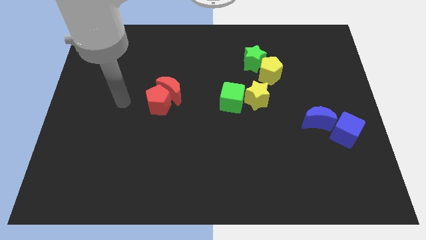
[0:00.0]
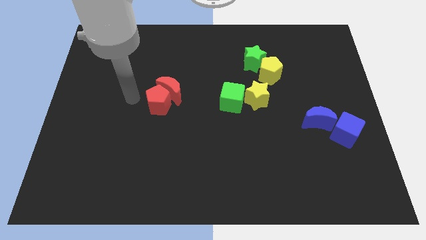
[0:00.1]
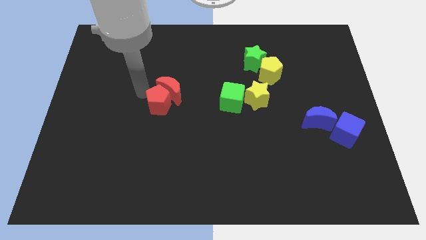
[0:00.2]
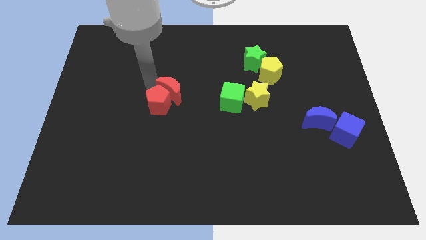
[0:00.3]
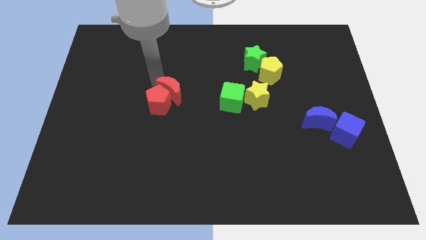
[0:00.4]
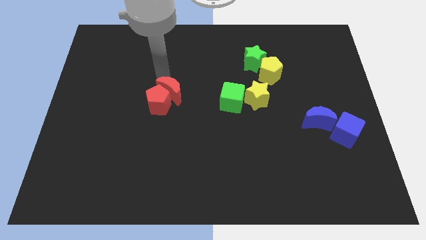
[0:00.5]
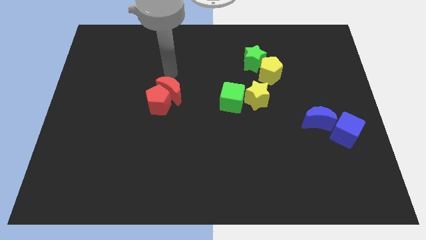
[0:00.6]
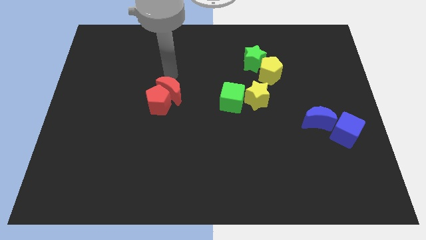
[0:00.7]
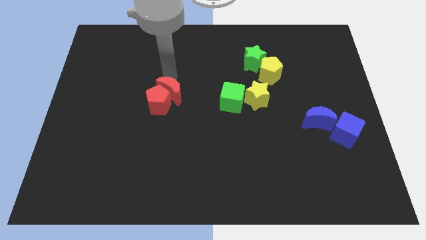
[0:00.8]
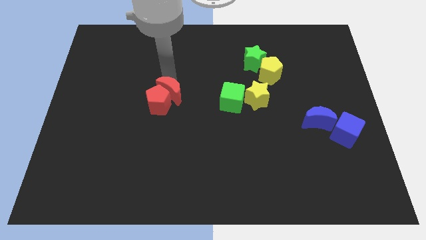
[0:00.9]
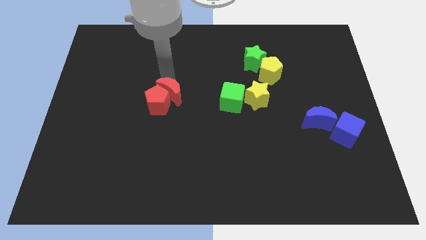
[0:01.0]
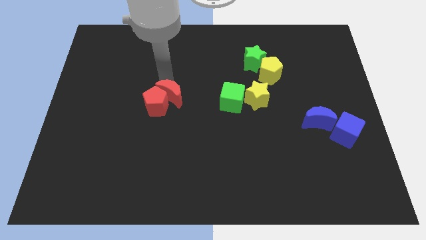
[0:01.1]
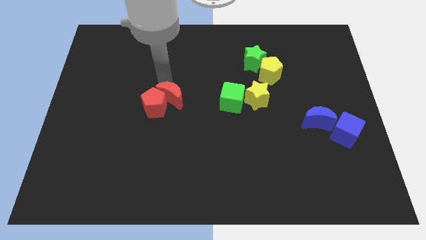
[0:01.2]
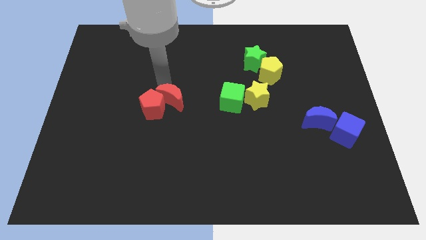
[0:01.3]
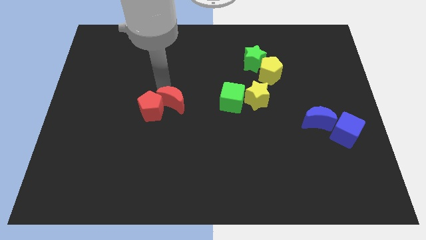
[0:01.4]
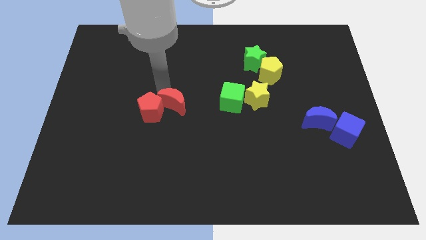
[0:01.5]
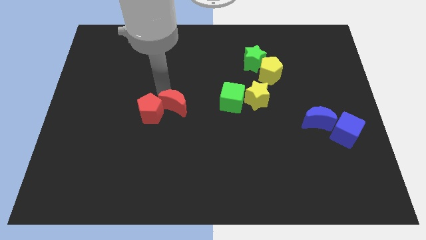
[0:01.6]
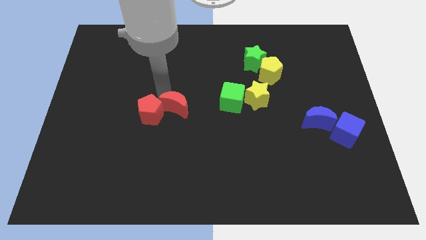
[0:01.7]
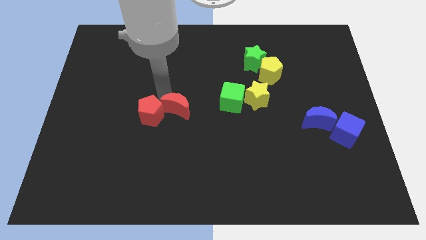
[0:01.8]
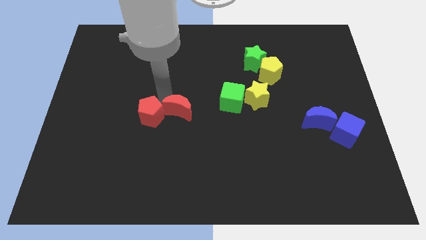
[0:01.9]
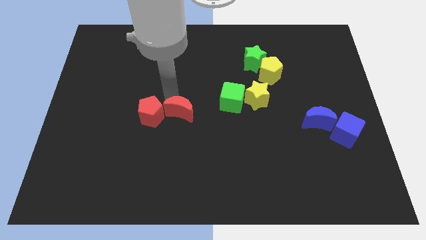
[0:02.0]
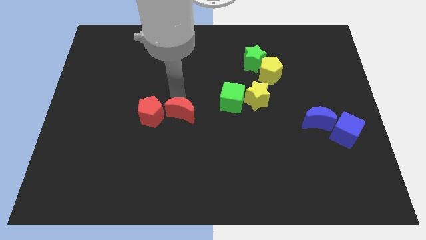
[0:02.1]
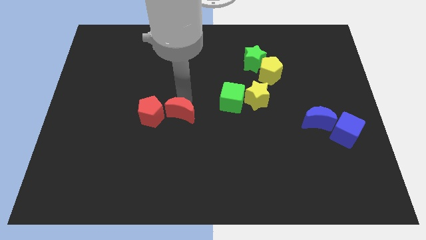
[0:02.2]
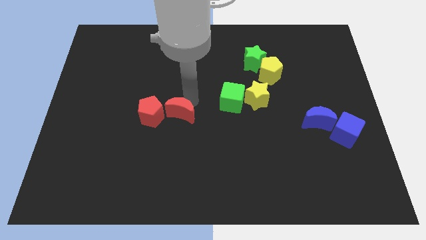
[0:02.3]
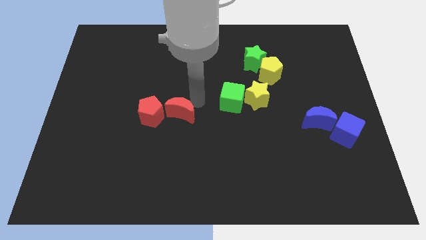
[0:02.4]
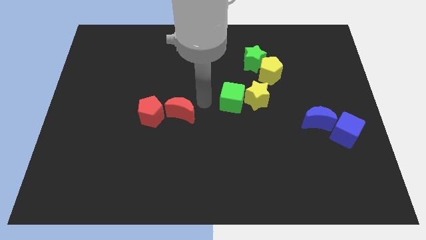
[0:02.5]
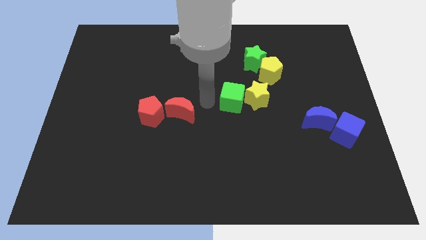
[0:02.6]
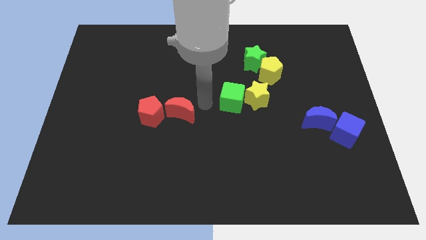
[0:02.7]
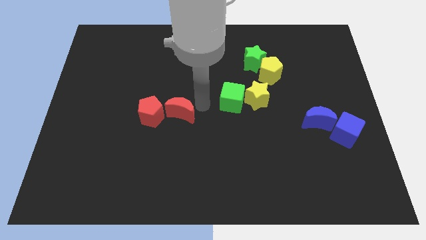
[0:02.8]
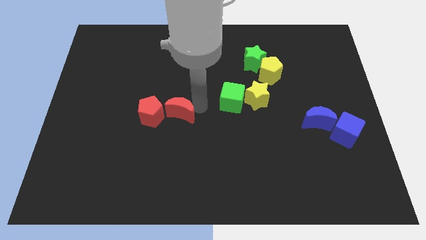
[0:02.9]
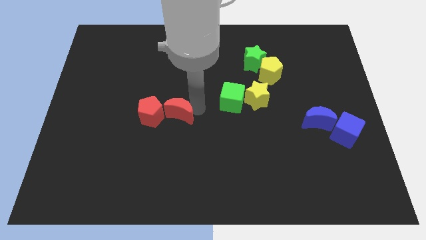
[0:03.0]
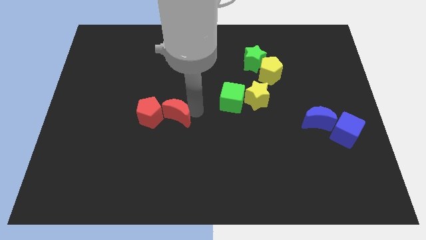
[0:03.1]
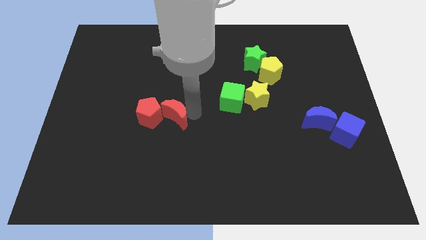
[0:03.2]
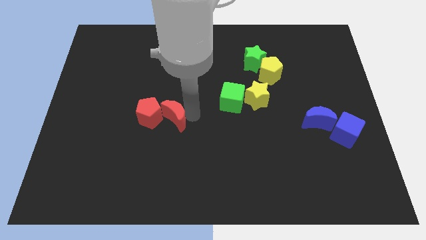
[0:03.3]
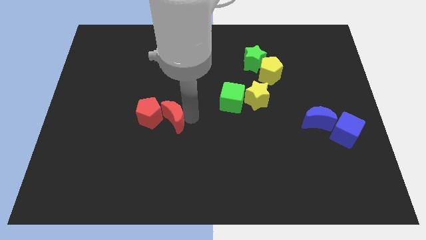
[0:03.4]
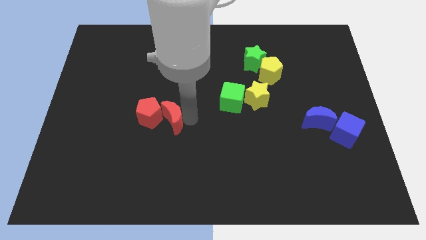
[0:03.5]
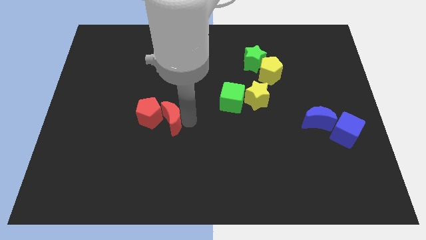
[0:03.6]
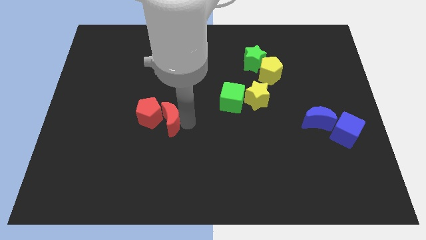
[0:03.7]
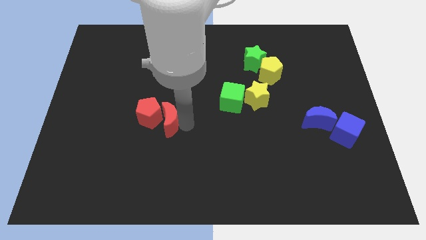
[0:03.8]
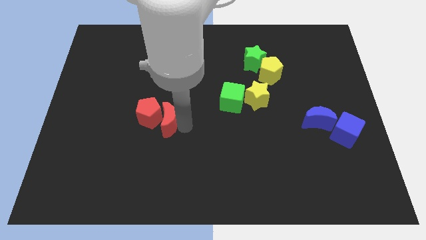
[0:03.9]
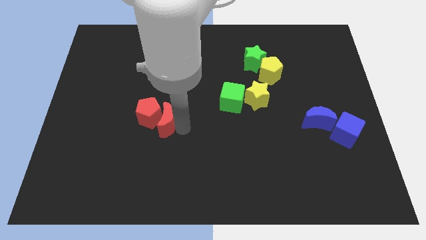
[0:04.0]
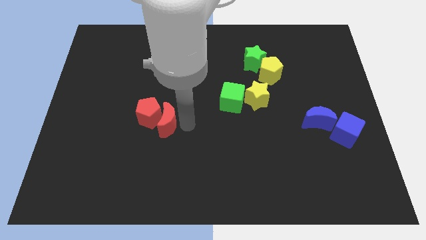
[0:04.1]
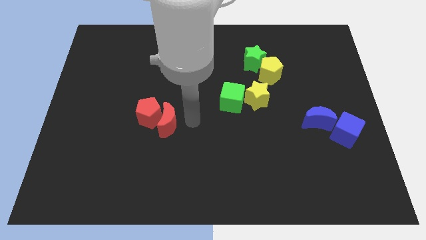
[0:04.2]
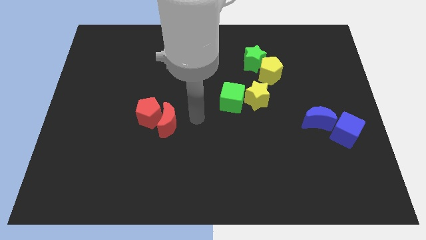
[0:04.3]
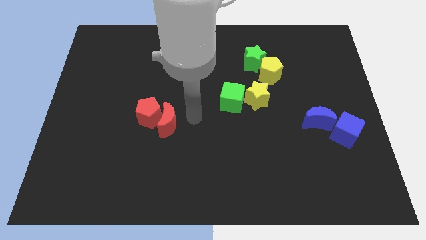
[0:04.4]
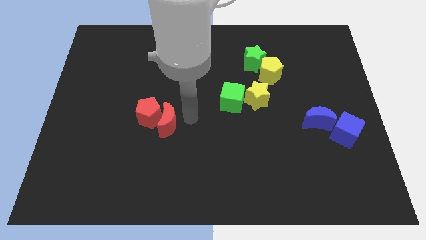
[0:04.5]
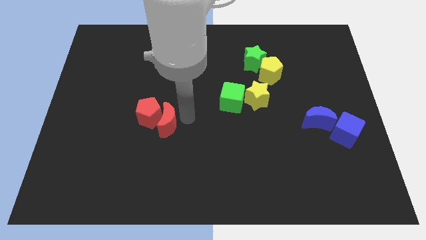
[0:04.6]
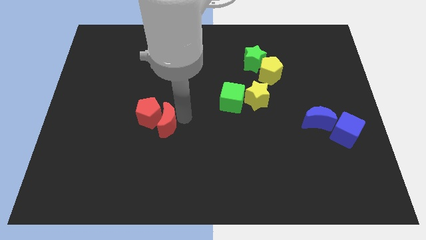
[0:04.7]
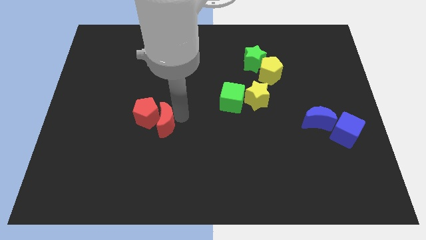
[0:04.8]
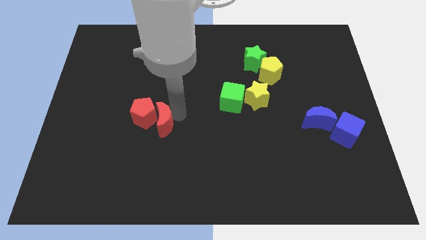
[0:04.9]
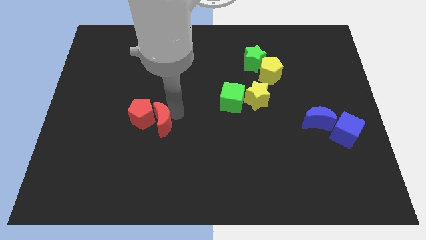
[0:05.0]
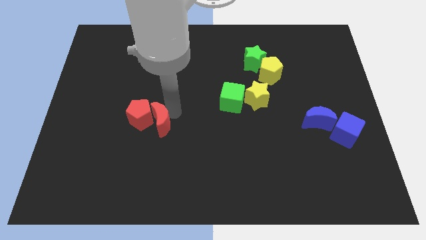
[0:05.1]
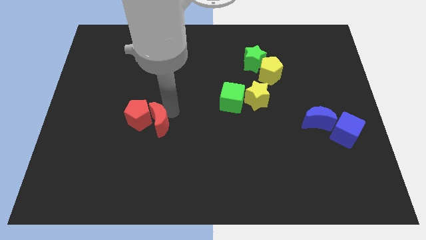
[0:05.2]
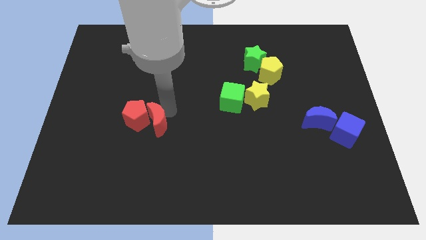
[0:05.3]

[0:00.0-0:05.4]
slightly push the red moon downwards and to the left diagonally

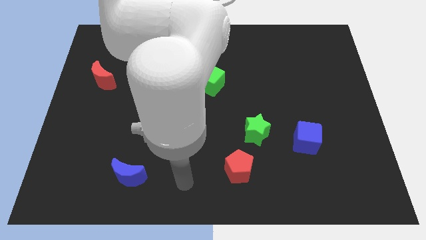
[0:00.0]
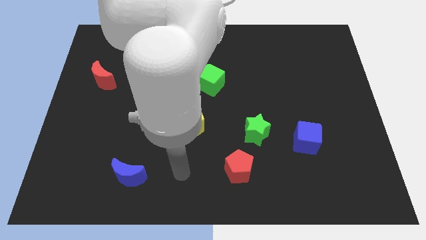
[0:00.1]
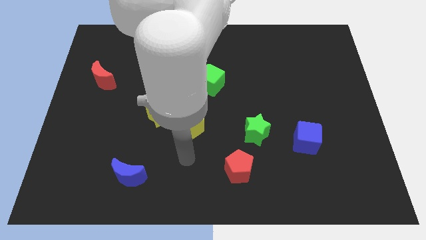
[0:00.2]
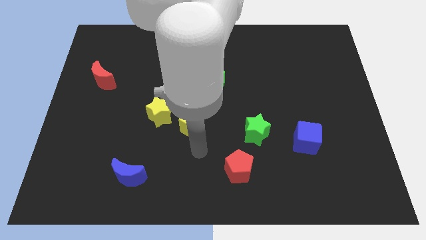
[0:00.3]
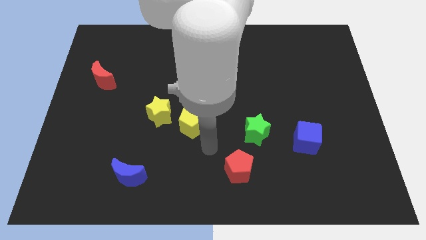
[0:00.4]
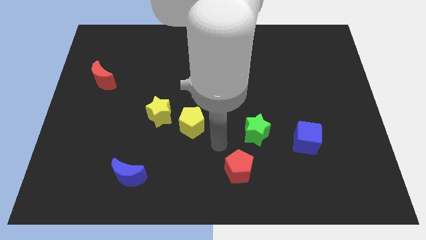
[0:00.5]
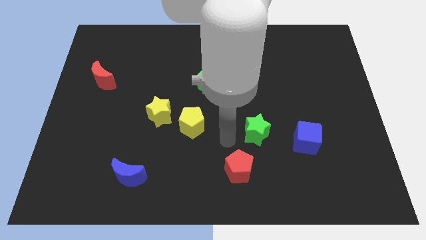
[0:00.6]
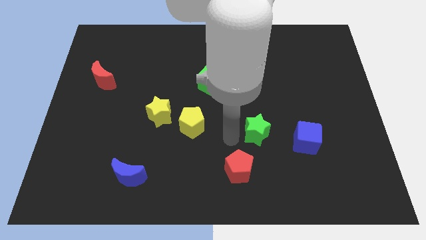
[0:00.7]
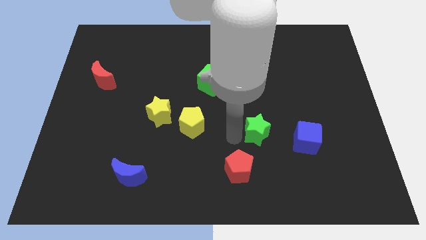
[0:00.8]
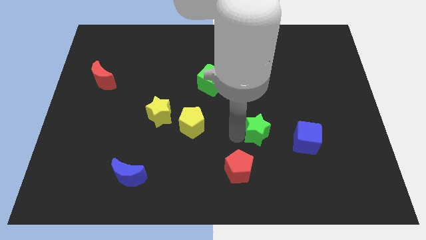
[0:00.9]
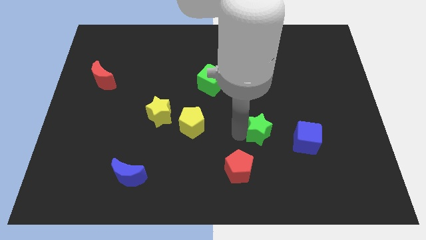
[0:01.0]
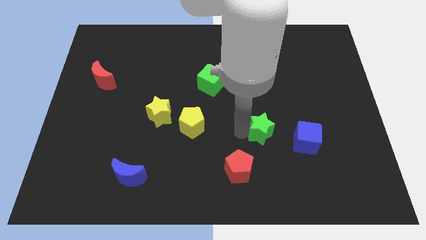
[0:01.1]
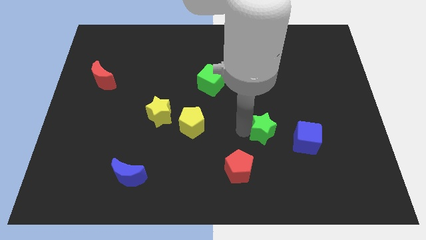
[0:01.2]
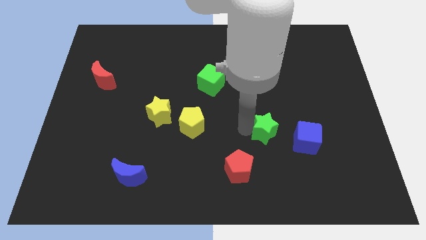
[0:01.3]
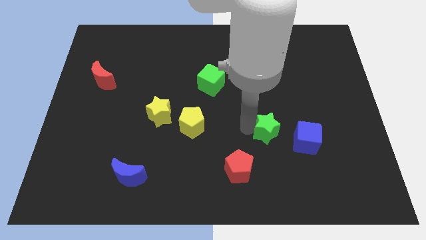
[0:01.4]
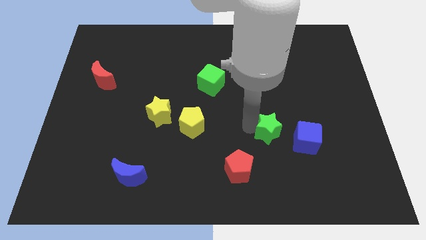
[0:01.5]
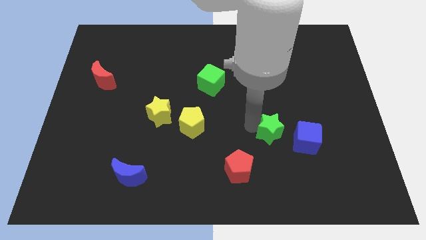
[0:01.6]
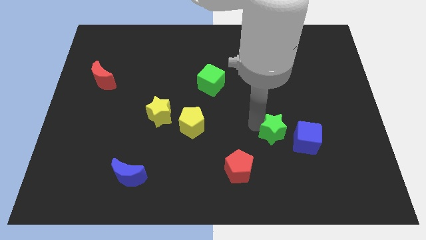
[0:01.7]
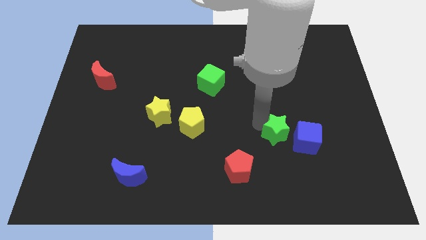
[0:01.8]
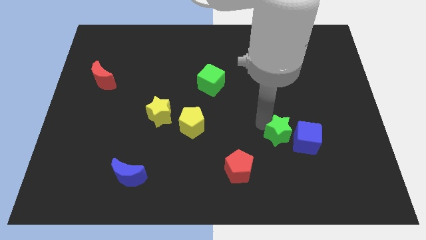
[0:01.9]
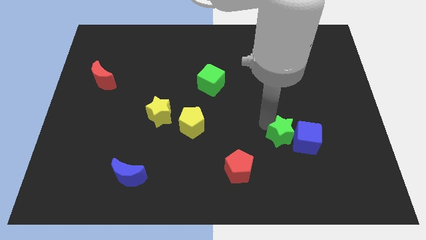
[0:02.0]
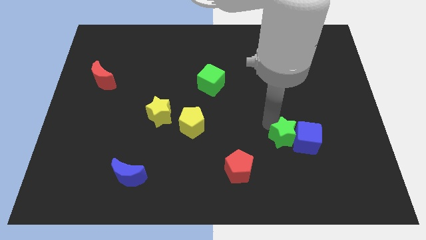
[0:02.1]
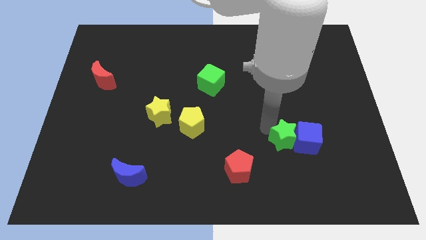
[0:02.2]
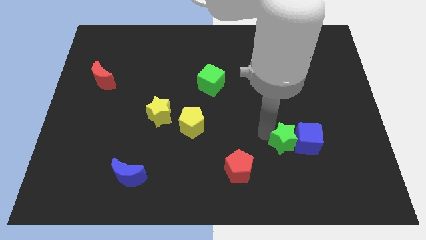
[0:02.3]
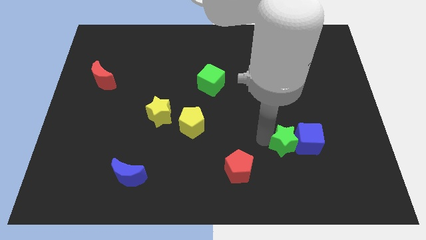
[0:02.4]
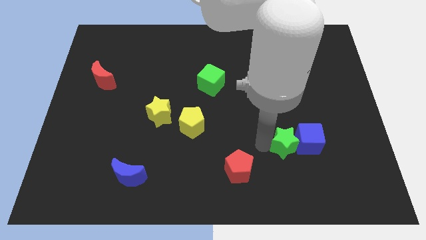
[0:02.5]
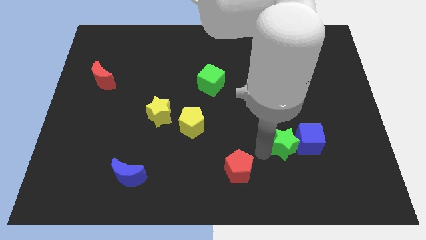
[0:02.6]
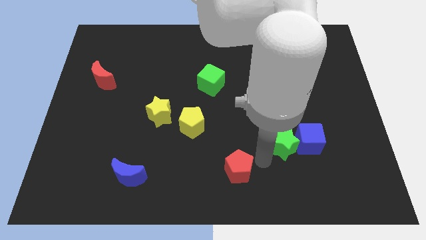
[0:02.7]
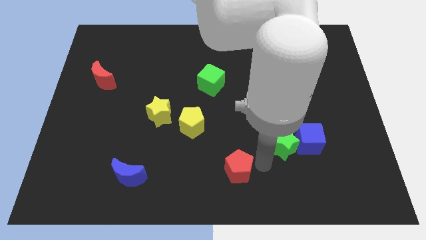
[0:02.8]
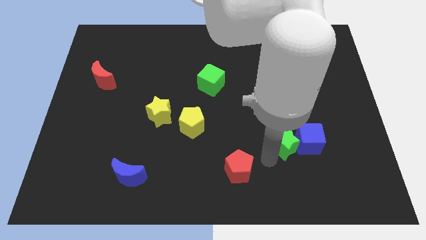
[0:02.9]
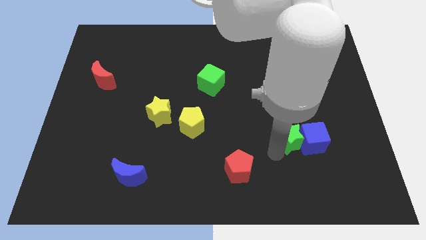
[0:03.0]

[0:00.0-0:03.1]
slightly move the green star right
